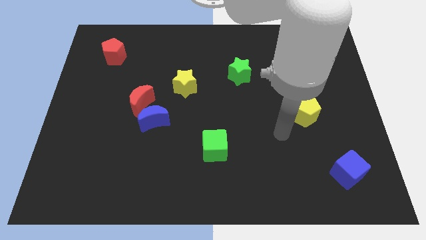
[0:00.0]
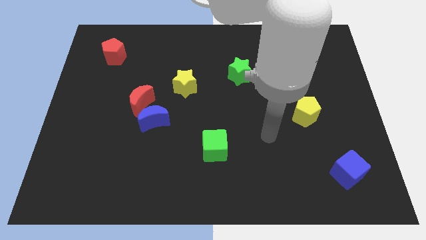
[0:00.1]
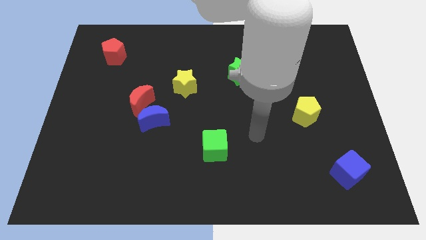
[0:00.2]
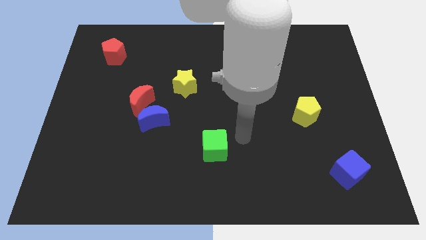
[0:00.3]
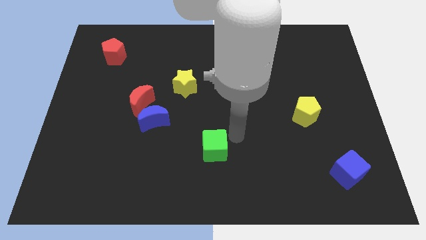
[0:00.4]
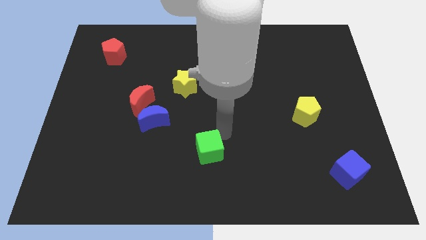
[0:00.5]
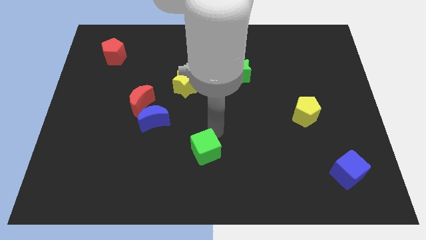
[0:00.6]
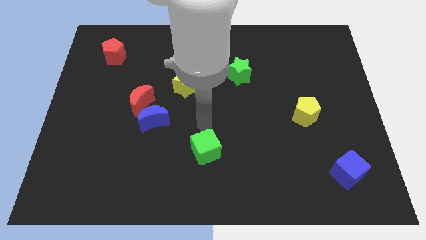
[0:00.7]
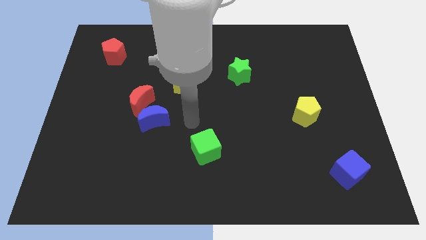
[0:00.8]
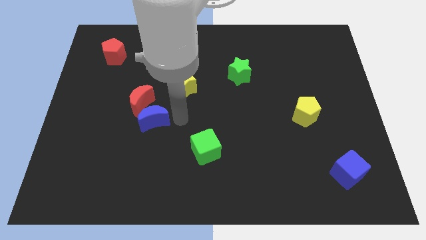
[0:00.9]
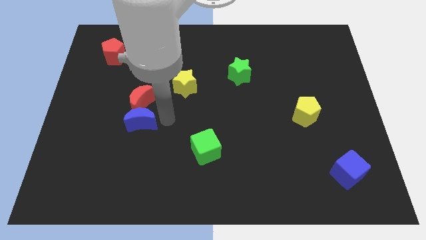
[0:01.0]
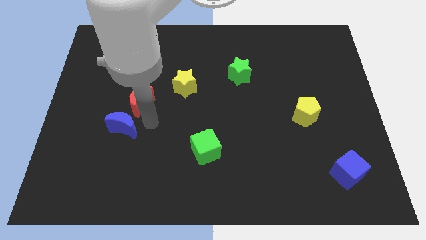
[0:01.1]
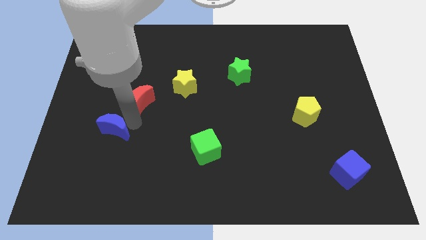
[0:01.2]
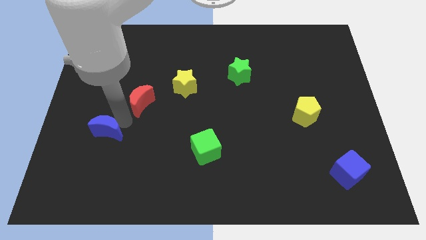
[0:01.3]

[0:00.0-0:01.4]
pull the red moon apart from the blue moon

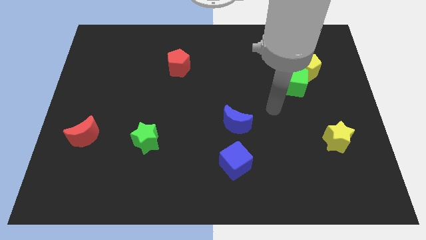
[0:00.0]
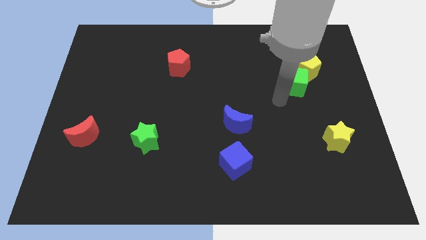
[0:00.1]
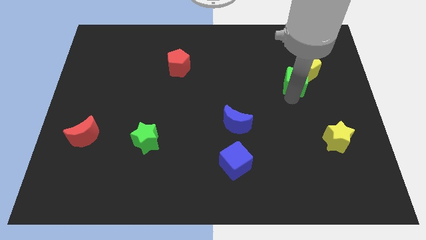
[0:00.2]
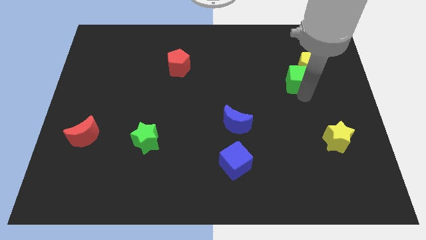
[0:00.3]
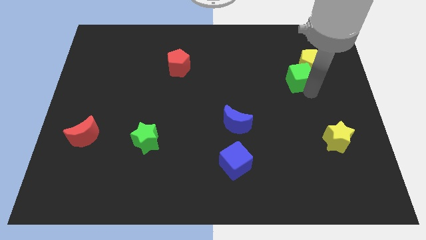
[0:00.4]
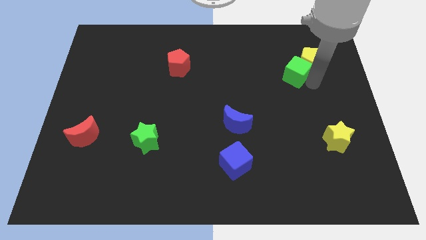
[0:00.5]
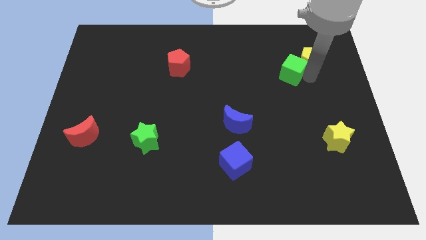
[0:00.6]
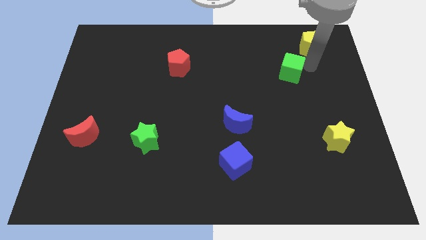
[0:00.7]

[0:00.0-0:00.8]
move the green cube away from the yellow pentagon

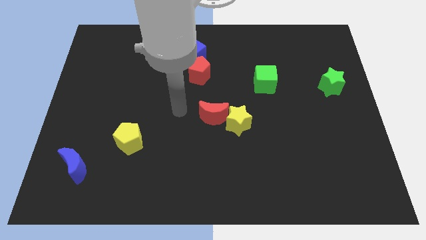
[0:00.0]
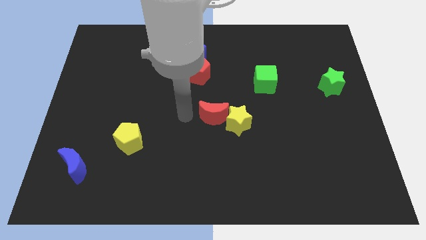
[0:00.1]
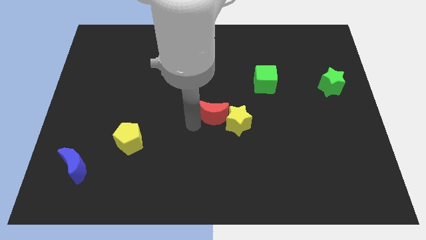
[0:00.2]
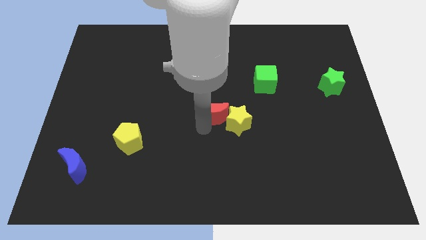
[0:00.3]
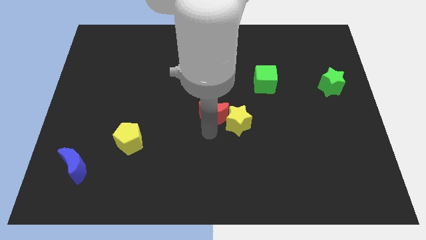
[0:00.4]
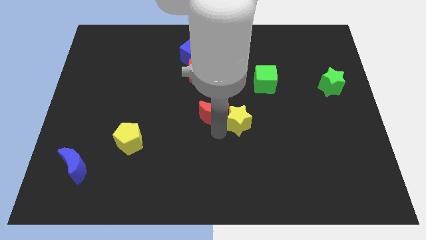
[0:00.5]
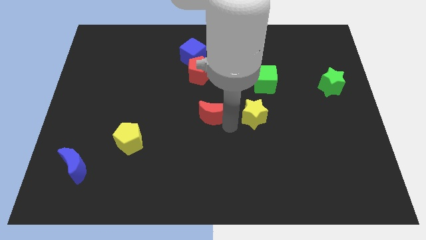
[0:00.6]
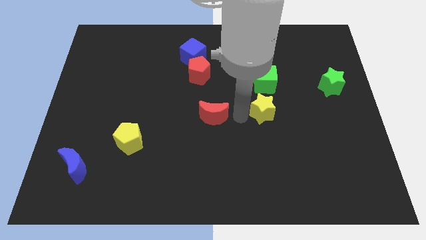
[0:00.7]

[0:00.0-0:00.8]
separate the red moon from the yellow star

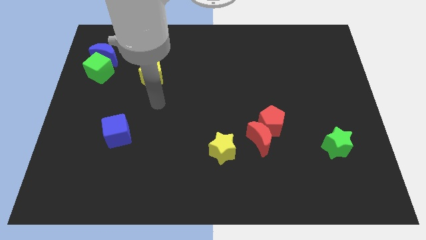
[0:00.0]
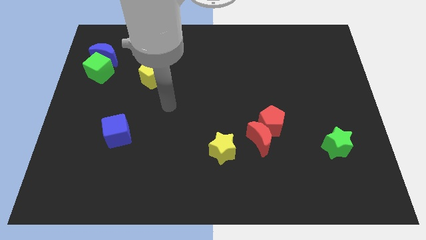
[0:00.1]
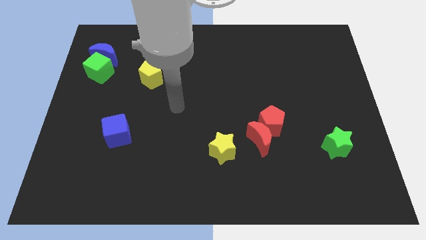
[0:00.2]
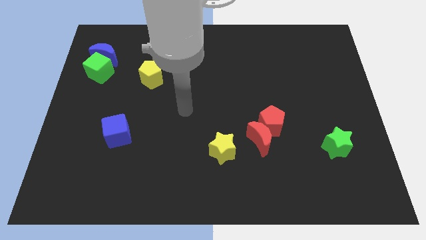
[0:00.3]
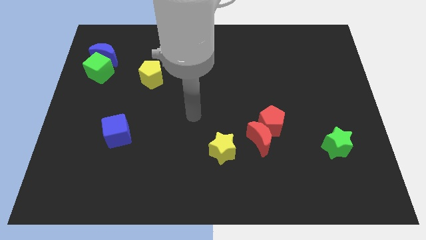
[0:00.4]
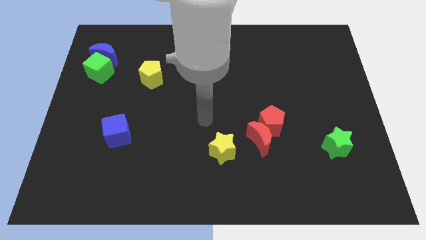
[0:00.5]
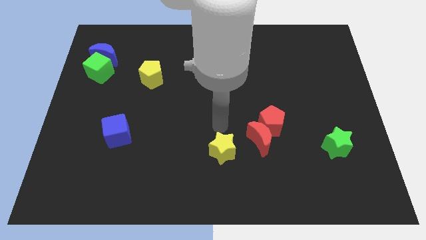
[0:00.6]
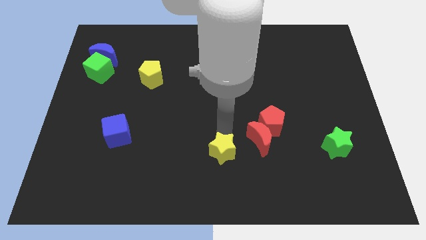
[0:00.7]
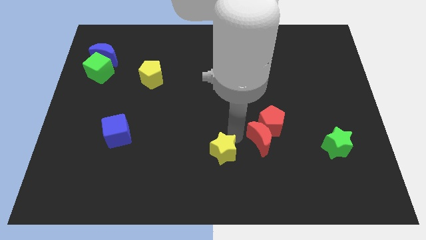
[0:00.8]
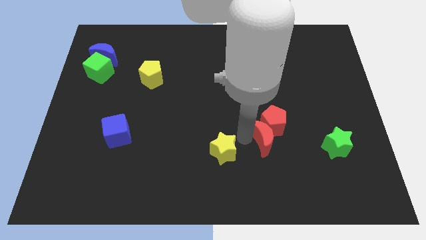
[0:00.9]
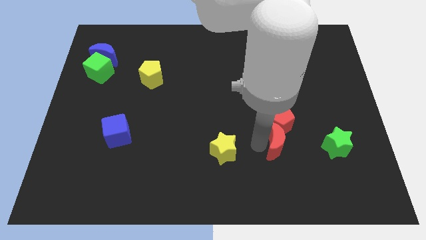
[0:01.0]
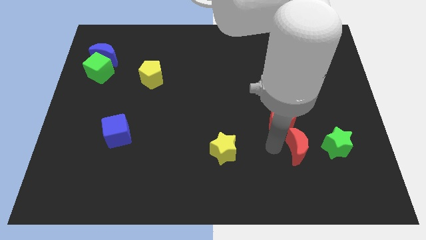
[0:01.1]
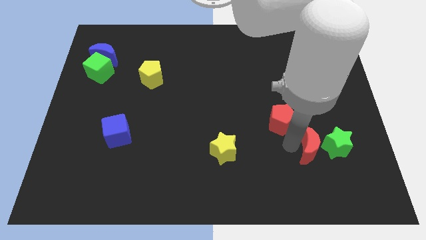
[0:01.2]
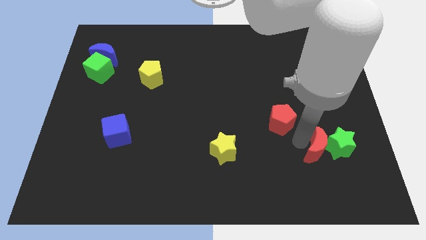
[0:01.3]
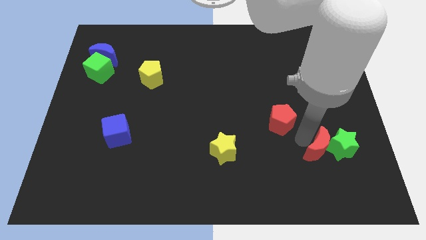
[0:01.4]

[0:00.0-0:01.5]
separate the red pentagon from the red moon

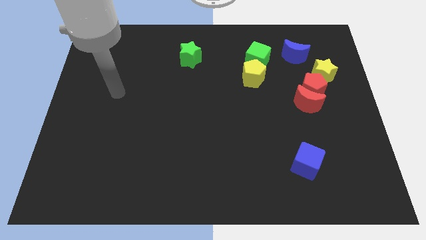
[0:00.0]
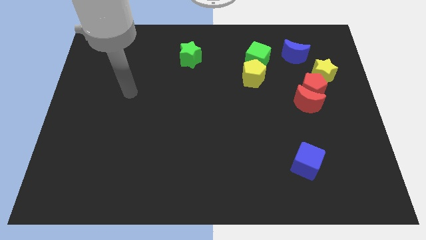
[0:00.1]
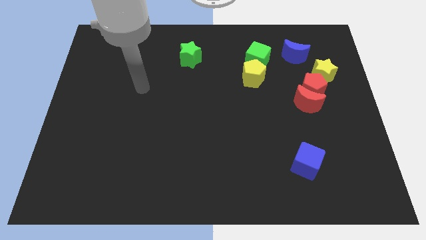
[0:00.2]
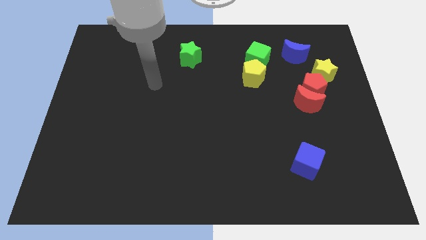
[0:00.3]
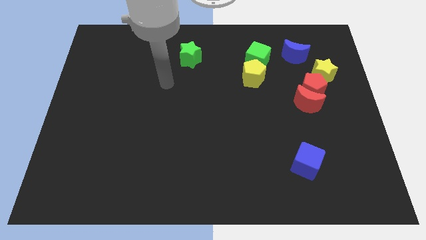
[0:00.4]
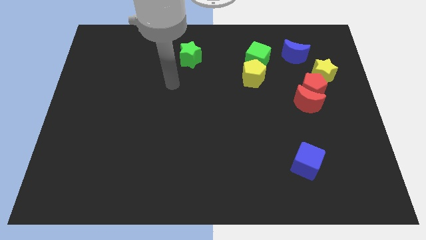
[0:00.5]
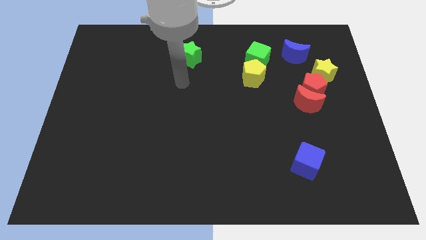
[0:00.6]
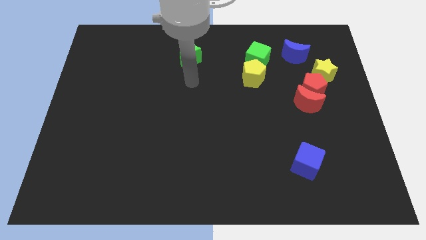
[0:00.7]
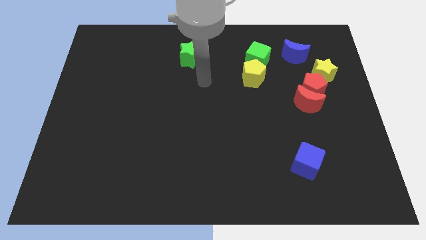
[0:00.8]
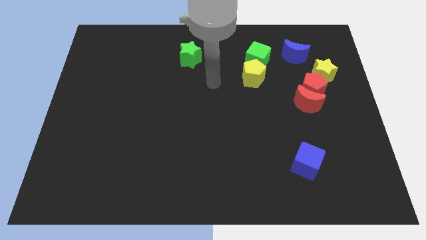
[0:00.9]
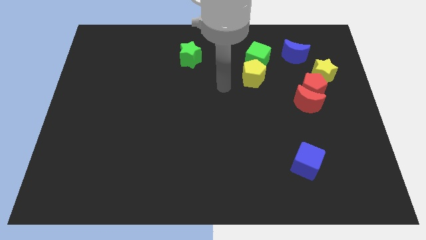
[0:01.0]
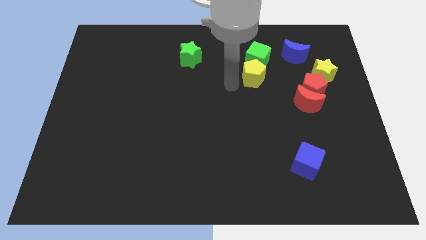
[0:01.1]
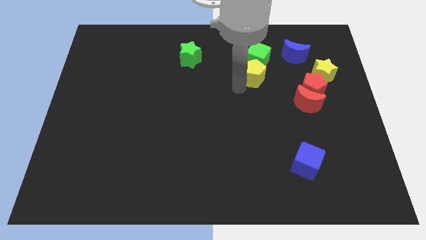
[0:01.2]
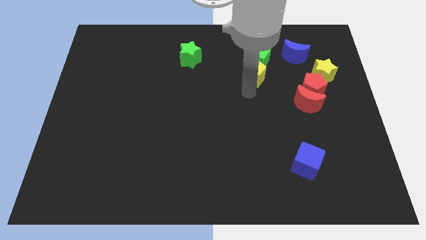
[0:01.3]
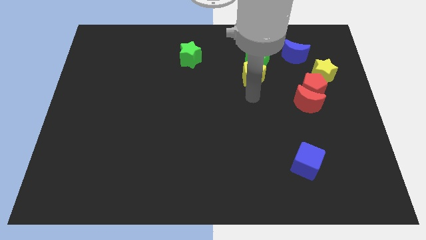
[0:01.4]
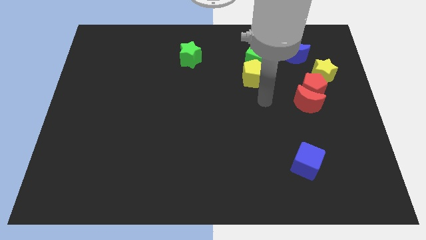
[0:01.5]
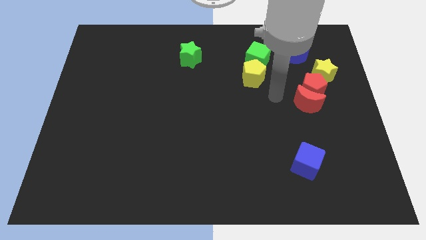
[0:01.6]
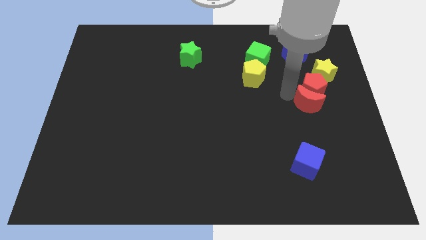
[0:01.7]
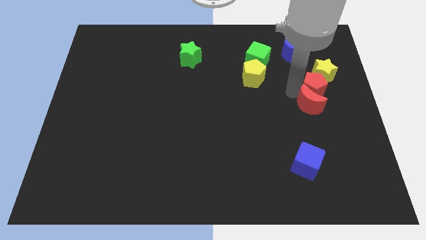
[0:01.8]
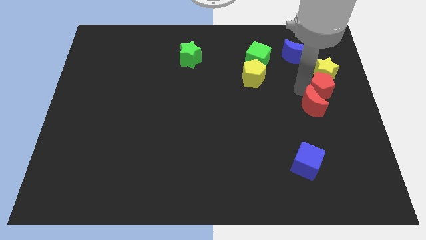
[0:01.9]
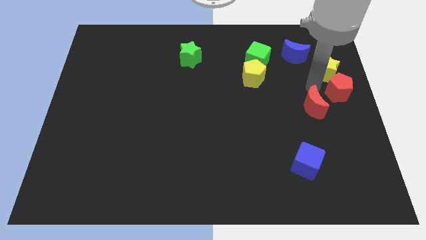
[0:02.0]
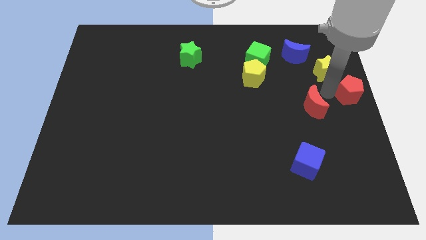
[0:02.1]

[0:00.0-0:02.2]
move the red moon away from the red pentagon

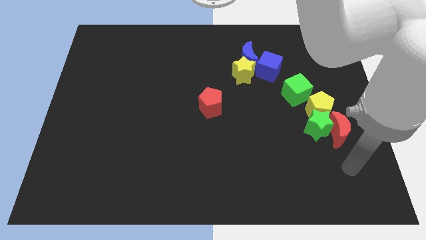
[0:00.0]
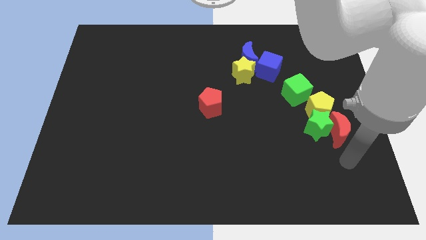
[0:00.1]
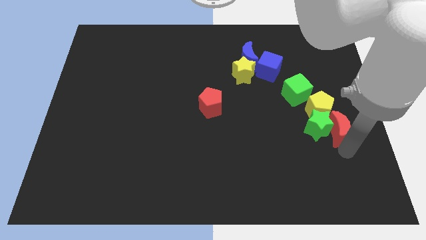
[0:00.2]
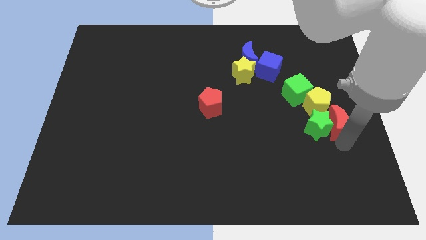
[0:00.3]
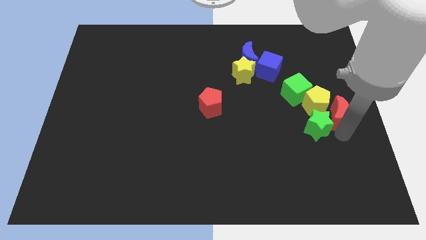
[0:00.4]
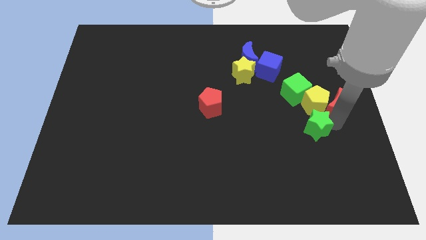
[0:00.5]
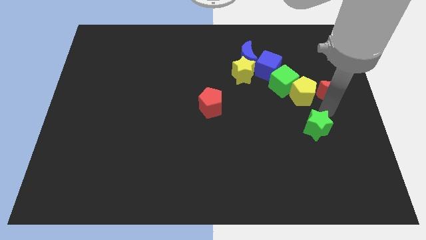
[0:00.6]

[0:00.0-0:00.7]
move the green star away from the red moon and yellow pentagon

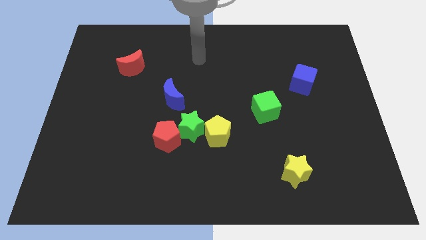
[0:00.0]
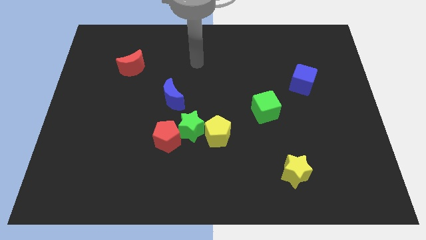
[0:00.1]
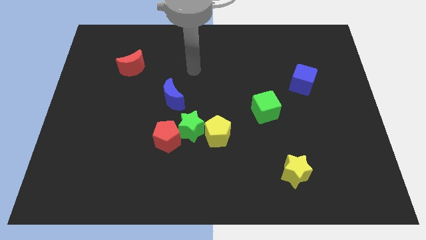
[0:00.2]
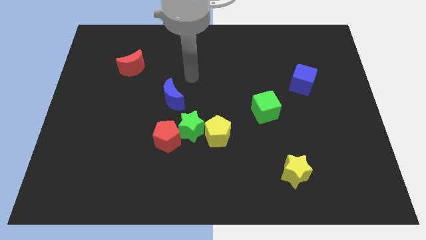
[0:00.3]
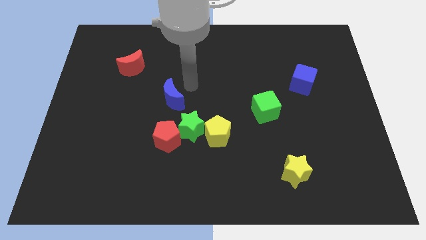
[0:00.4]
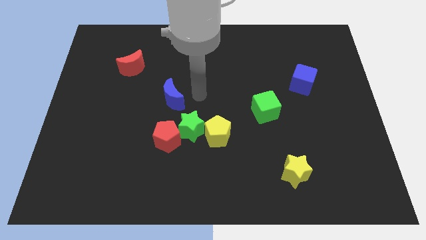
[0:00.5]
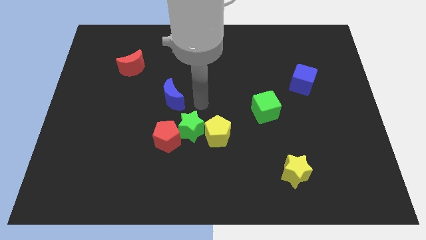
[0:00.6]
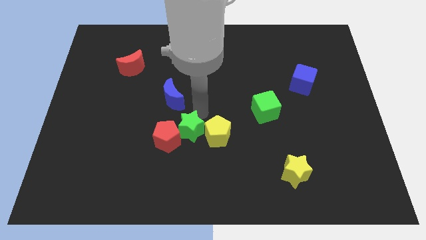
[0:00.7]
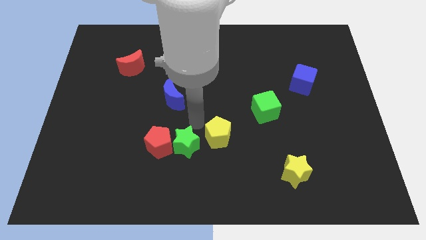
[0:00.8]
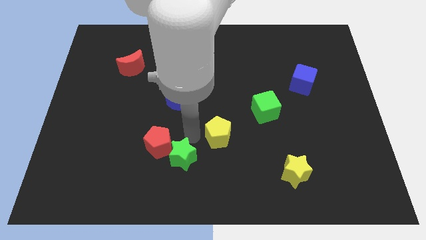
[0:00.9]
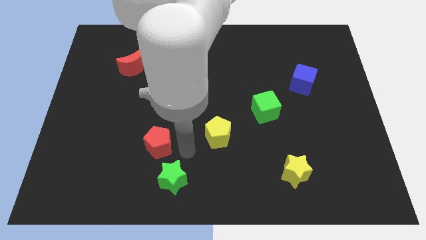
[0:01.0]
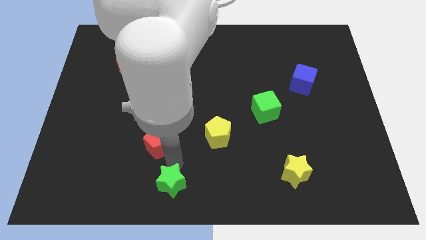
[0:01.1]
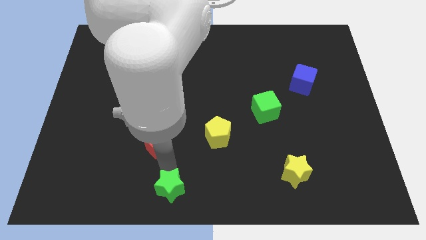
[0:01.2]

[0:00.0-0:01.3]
move the red pentagon away from the green star

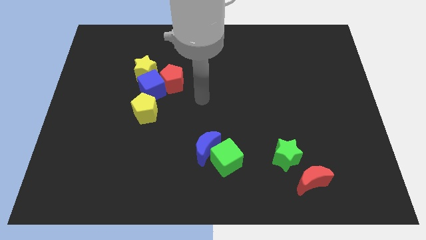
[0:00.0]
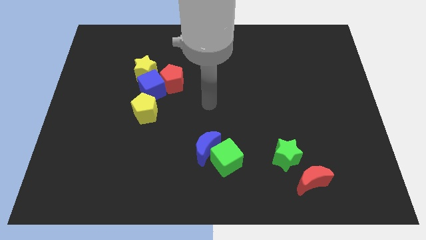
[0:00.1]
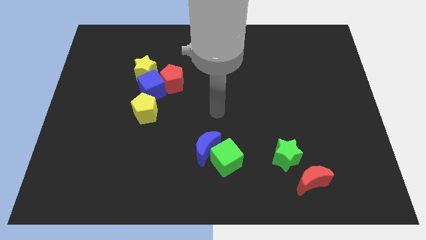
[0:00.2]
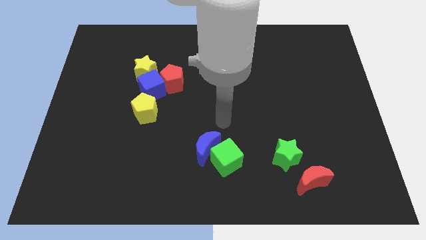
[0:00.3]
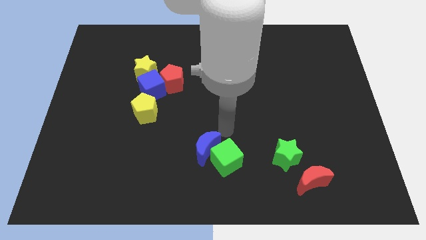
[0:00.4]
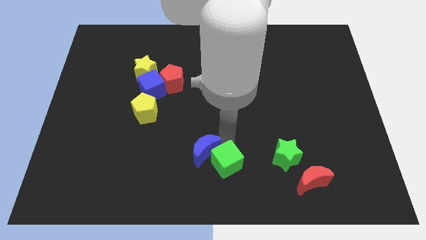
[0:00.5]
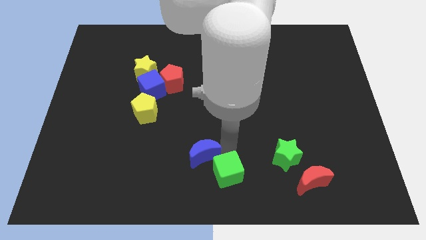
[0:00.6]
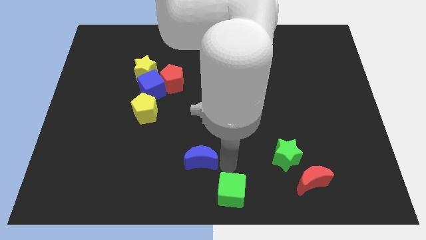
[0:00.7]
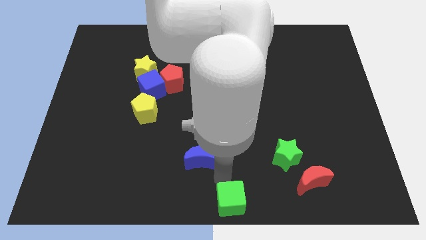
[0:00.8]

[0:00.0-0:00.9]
pull the blue moon apart from the green cube
